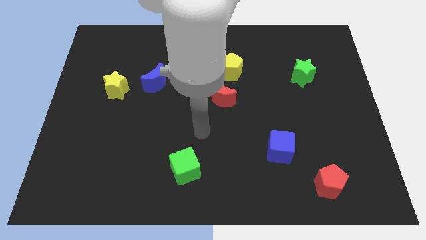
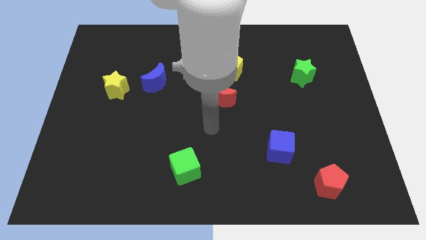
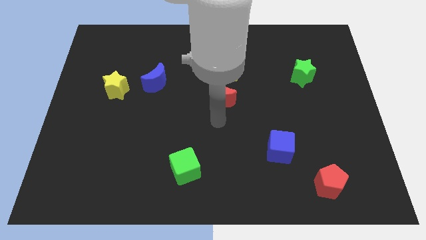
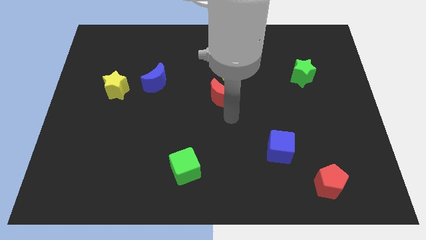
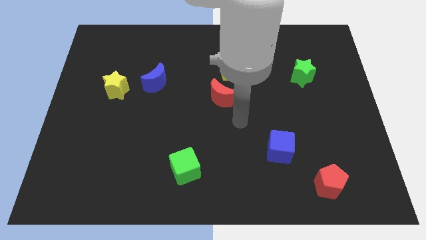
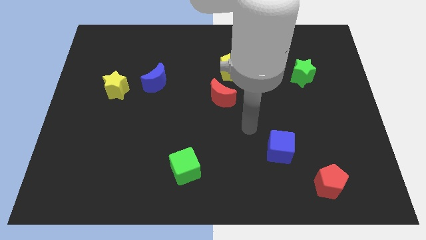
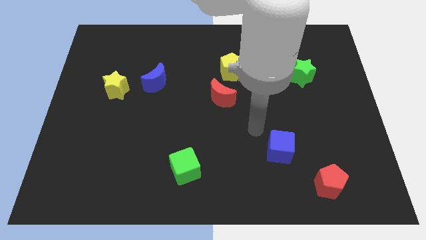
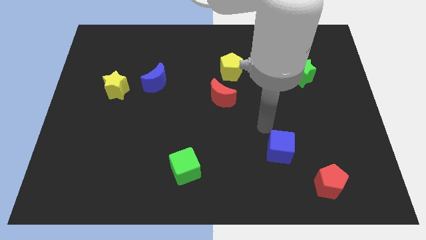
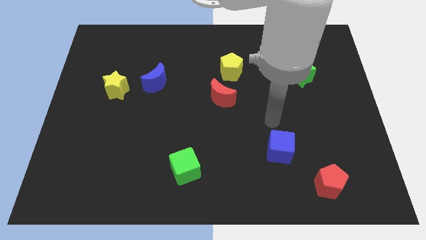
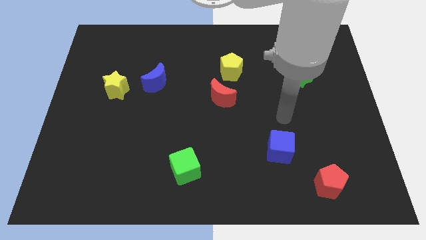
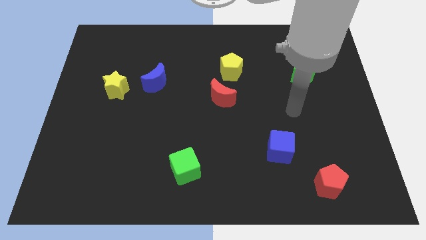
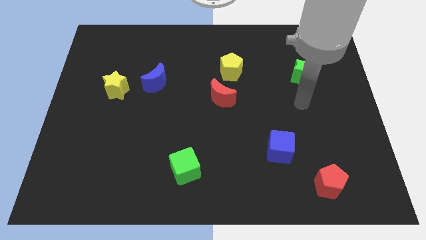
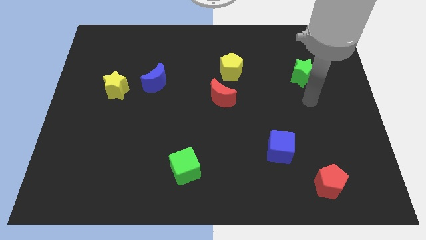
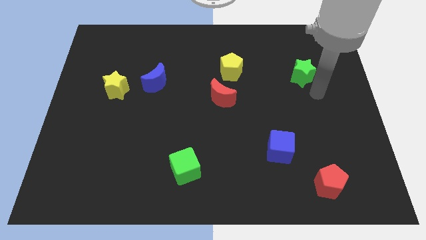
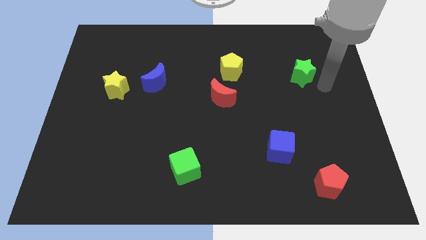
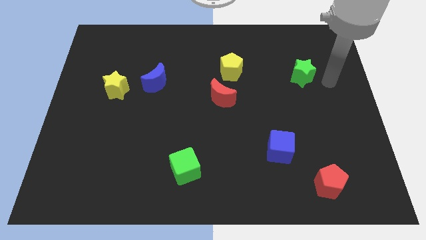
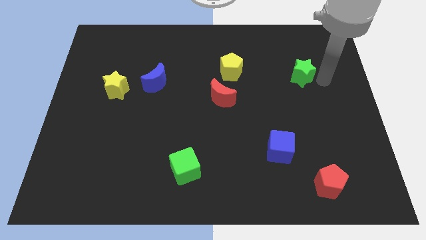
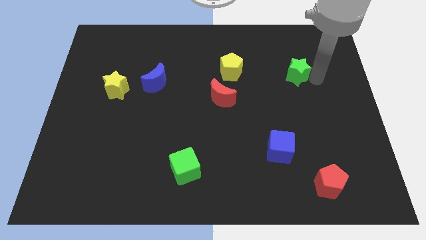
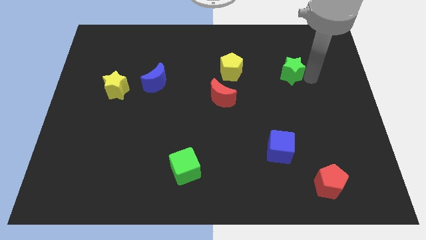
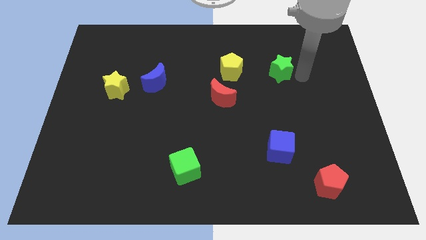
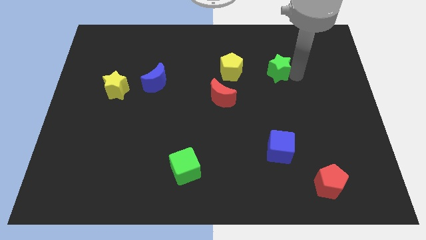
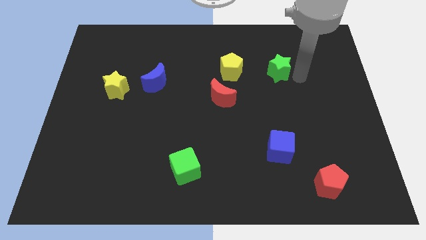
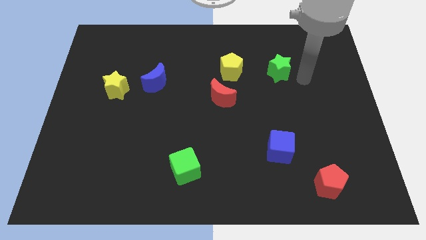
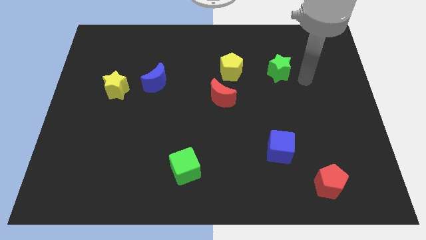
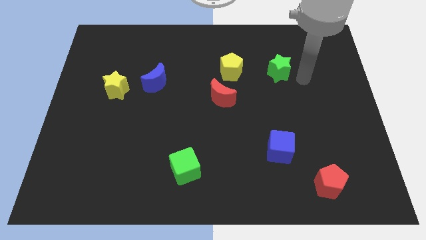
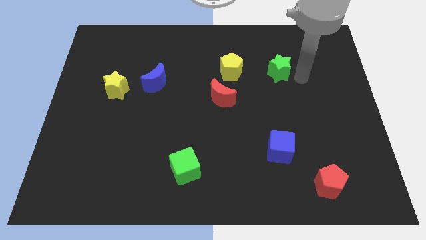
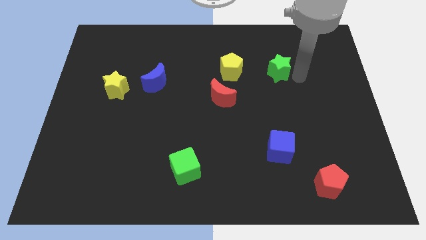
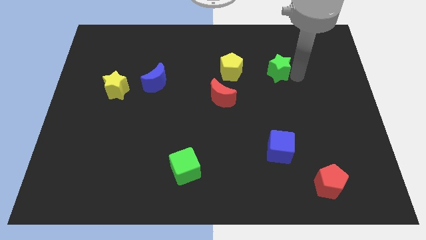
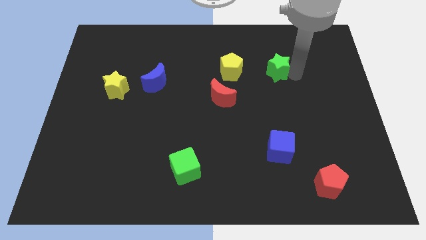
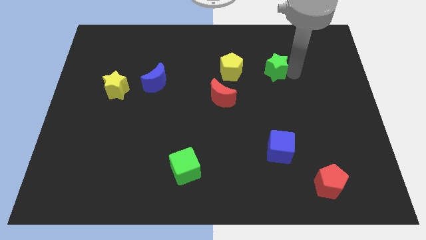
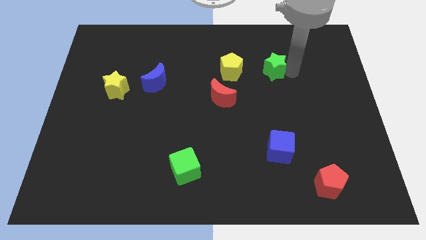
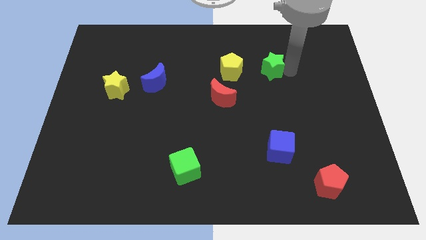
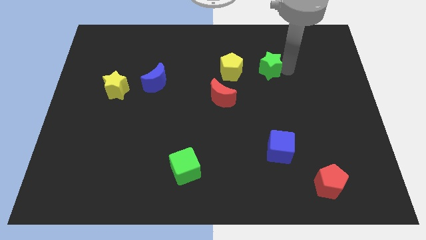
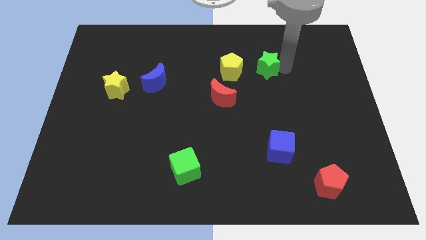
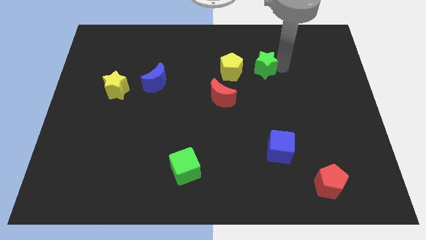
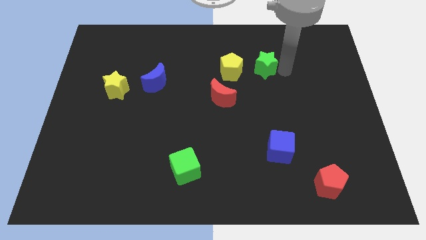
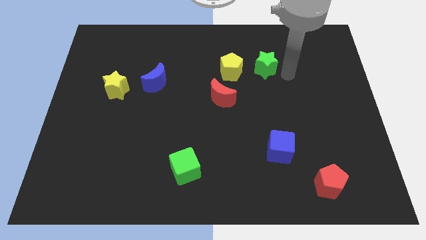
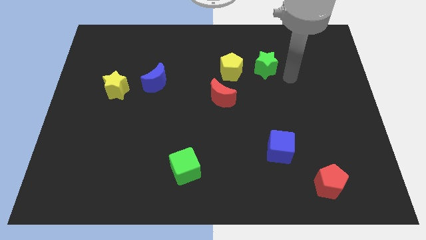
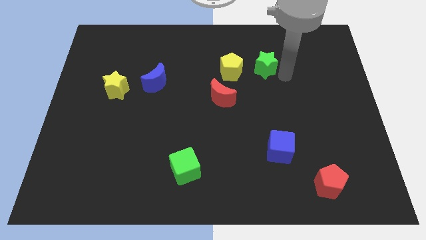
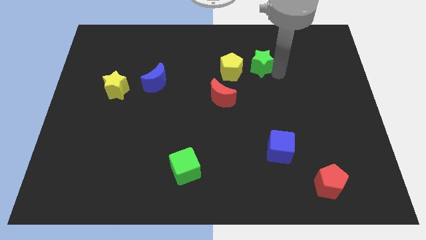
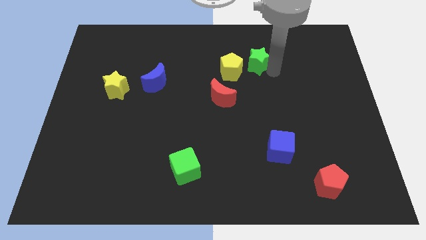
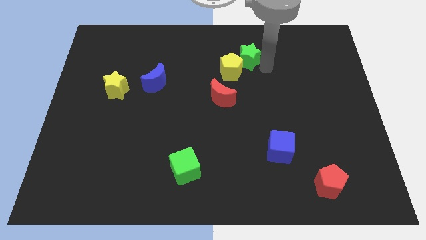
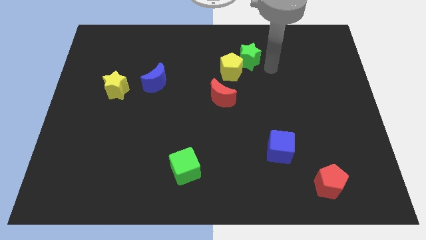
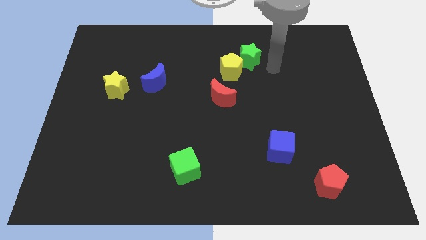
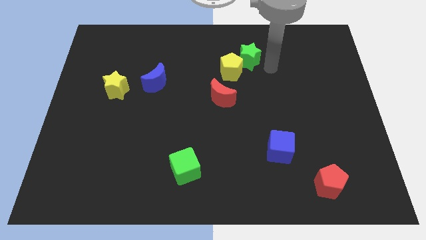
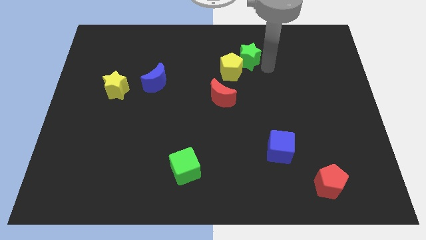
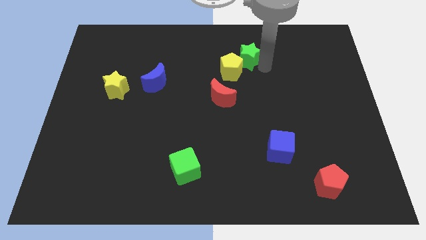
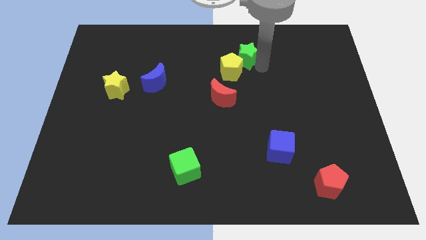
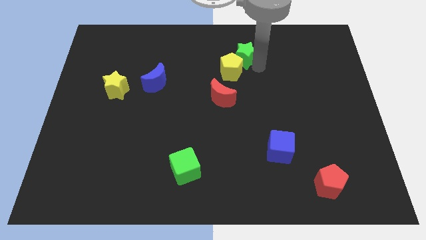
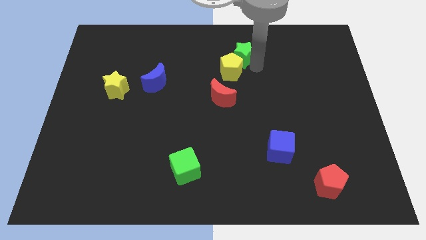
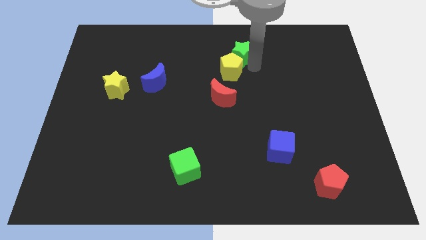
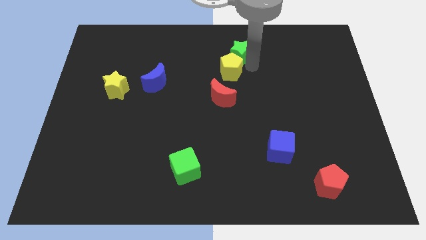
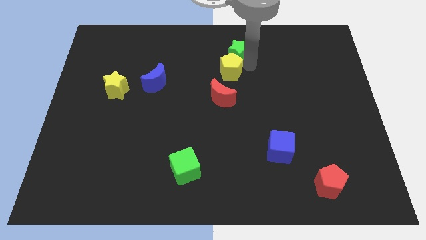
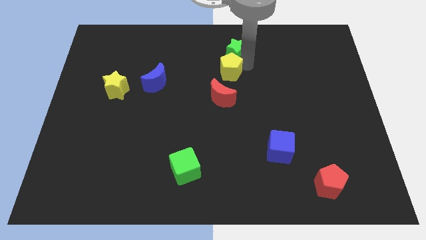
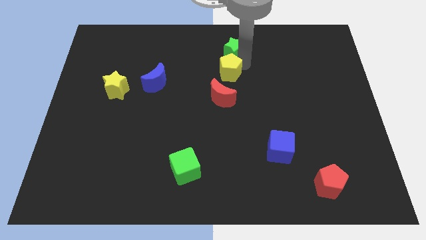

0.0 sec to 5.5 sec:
slide the green star to the top side

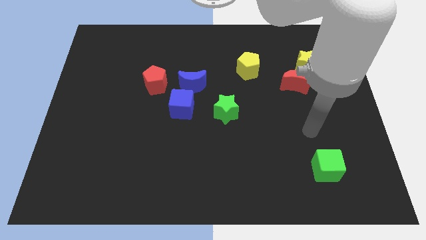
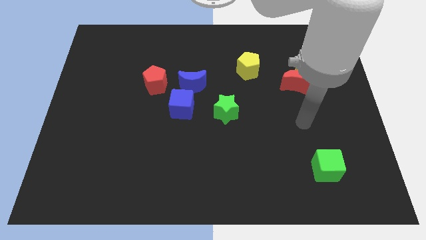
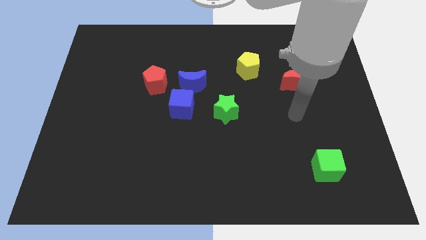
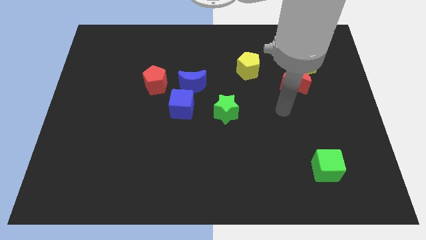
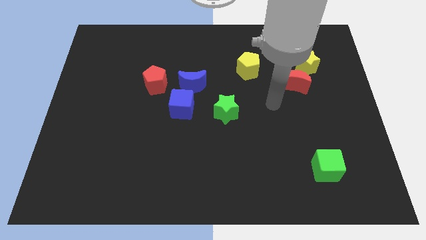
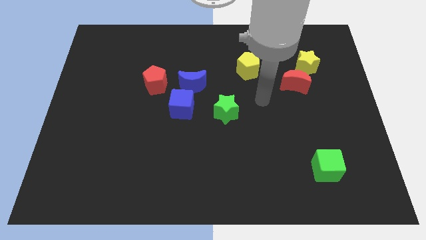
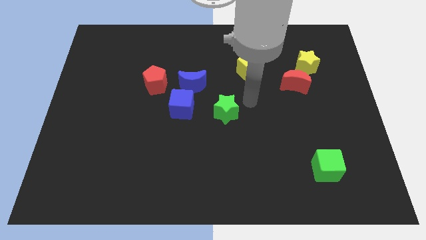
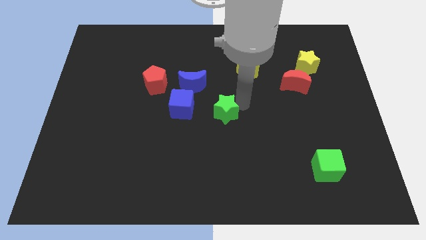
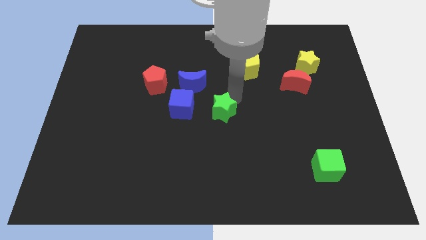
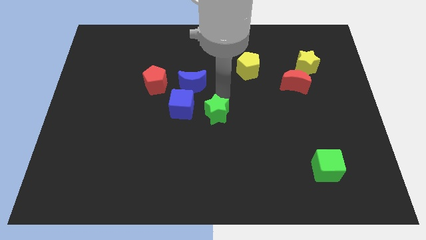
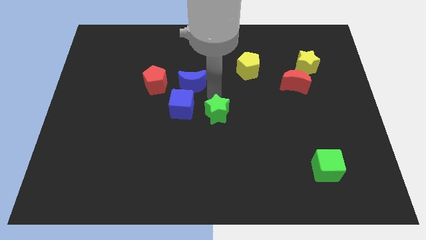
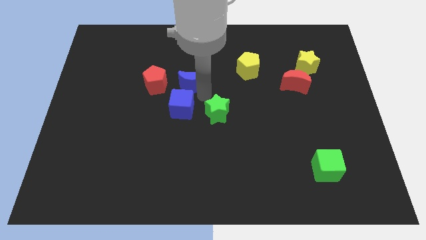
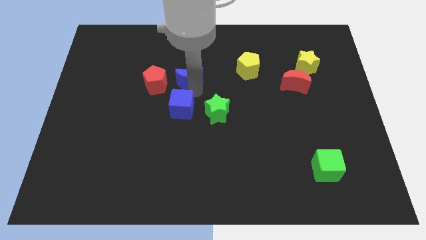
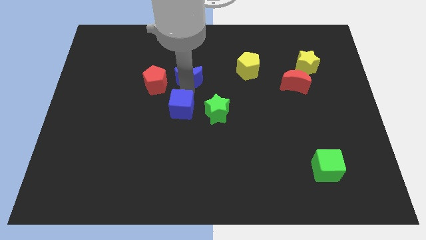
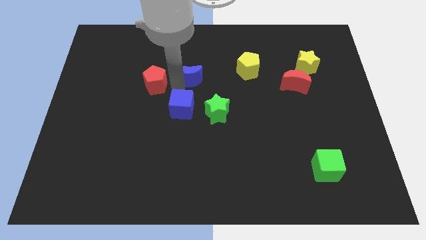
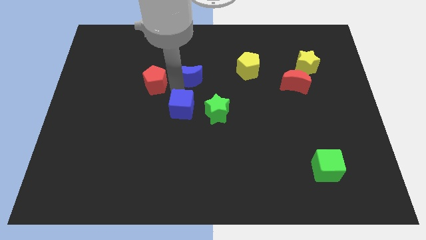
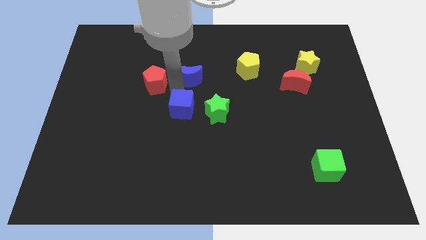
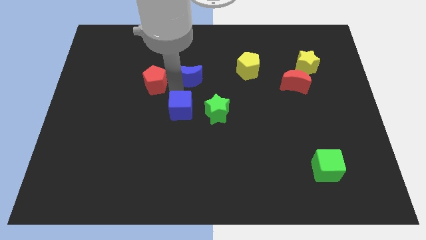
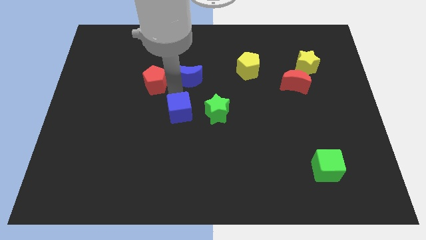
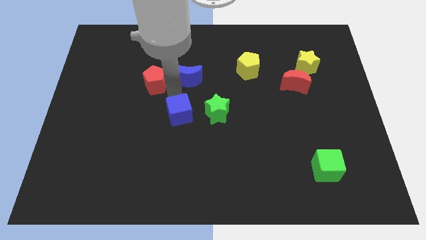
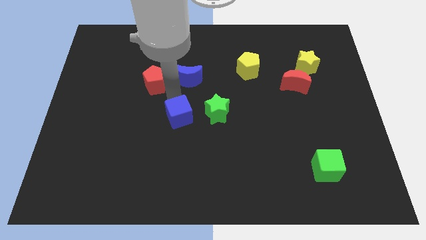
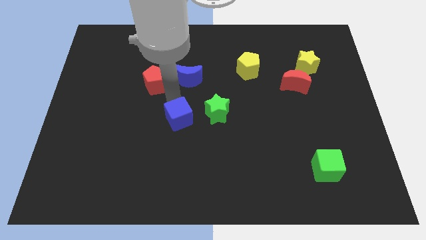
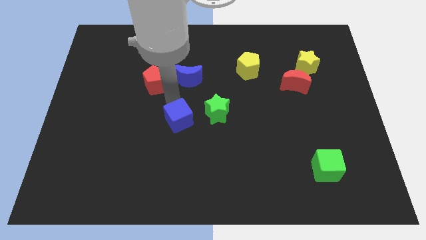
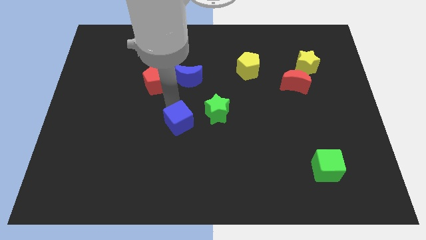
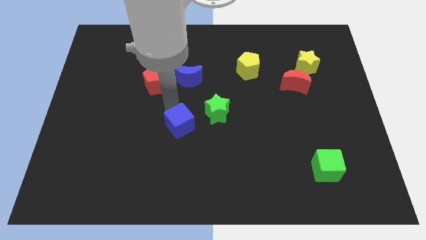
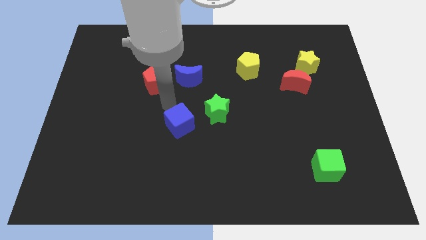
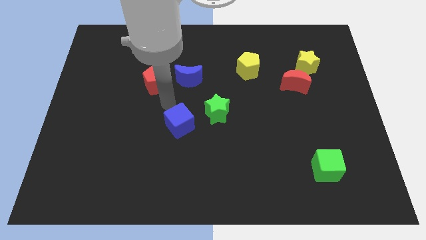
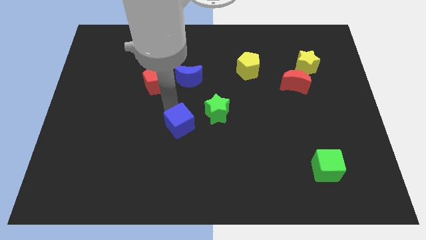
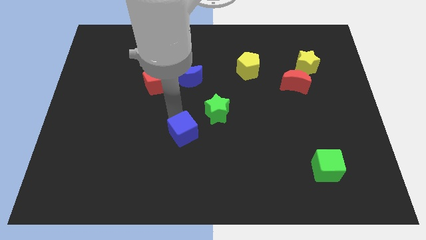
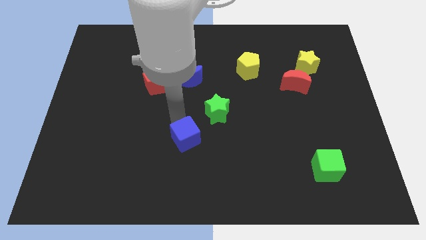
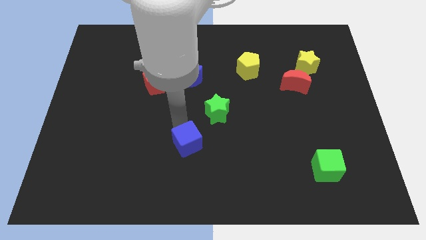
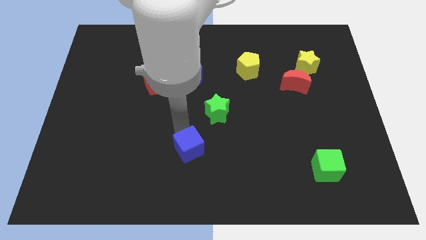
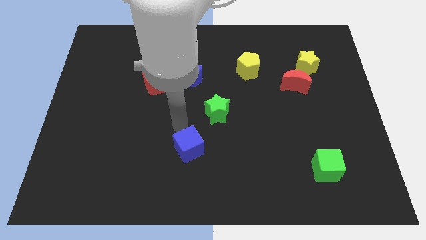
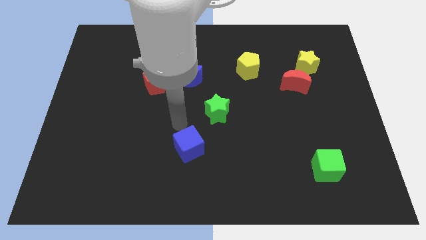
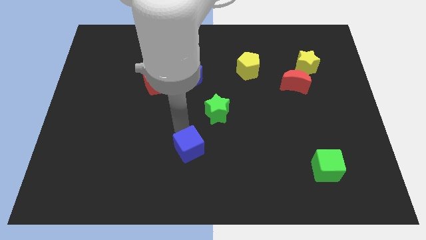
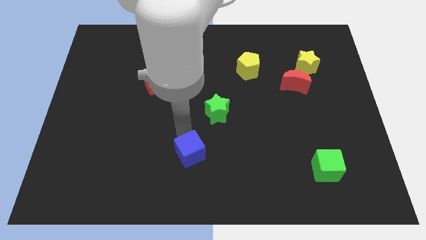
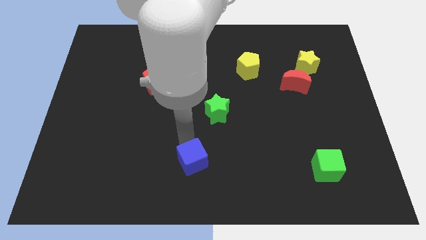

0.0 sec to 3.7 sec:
put the blue cube to the bottom
